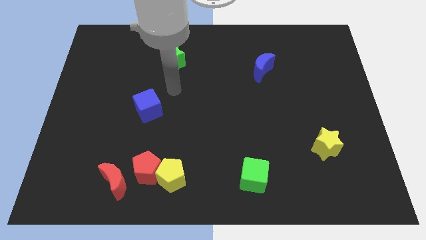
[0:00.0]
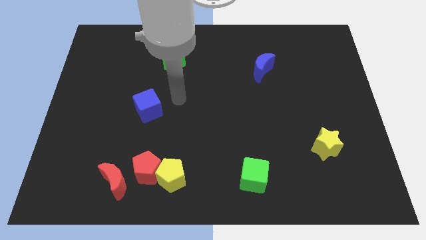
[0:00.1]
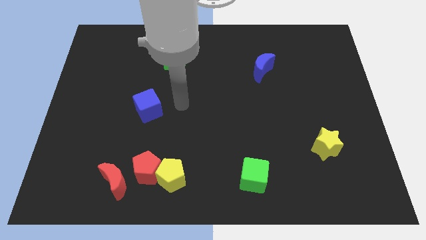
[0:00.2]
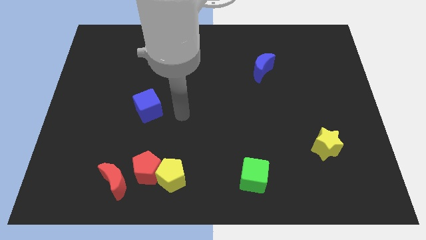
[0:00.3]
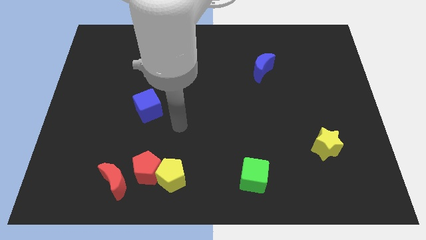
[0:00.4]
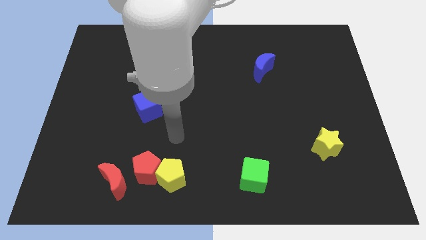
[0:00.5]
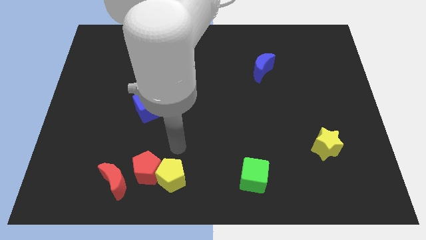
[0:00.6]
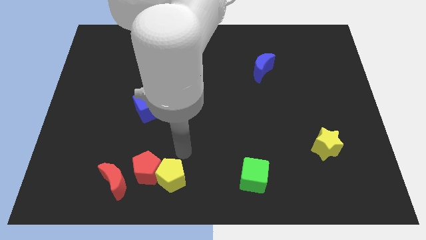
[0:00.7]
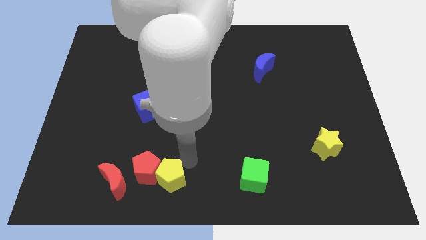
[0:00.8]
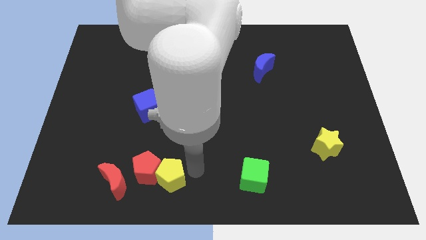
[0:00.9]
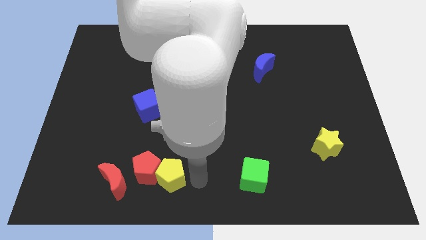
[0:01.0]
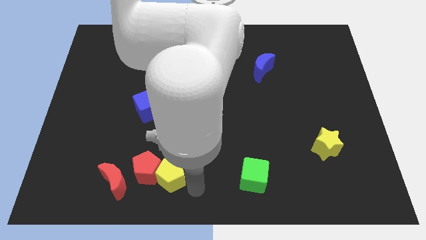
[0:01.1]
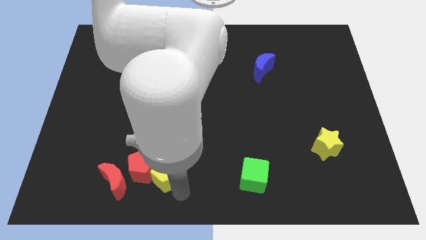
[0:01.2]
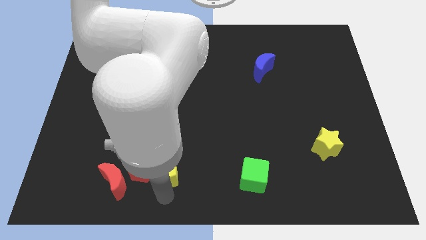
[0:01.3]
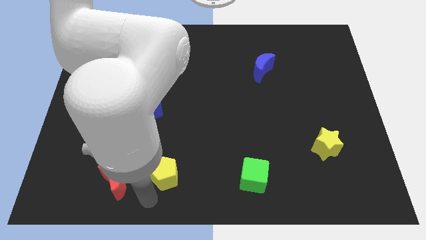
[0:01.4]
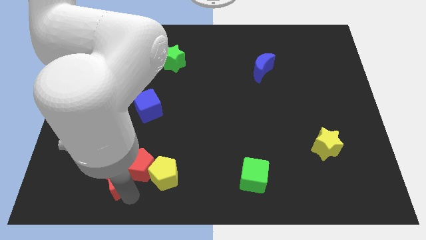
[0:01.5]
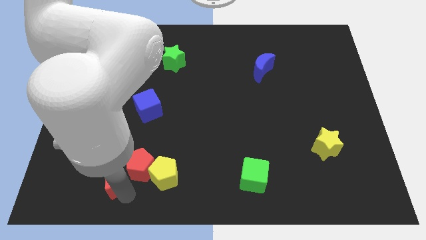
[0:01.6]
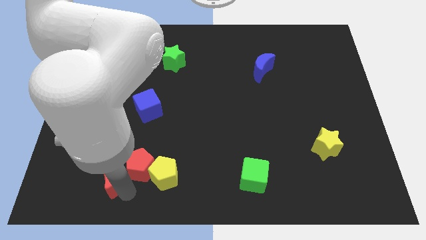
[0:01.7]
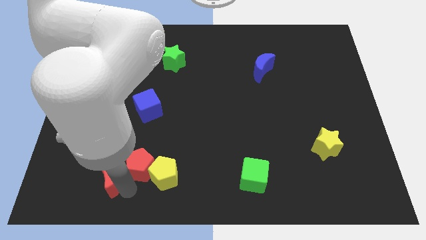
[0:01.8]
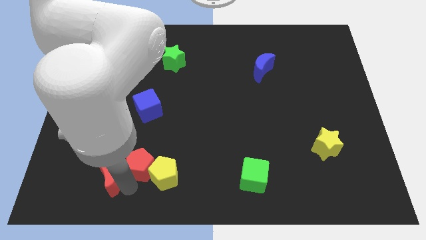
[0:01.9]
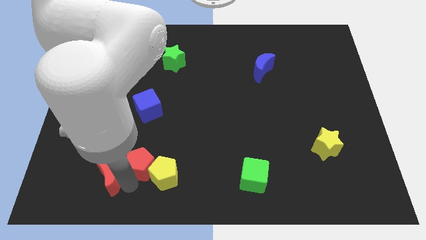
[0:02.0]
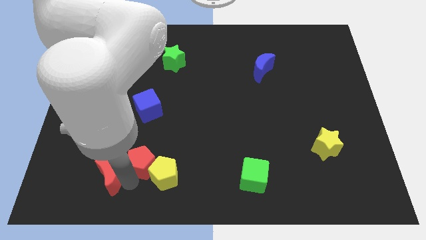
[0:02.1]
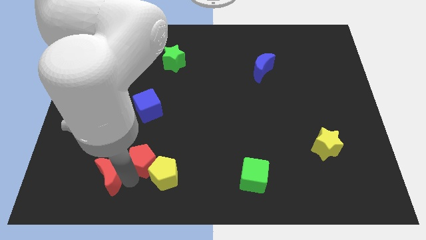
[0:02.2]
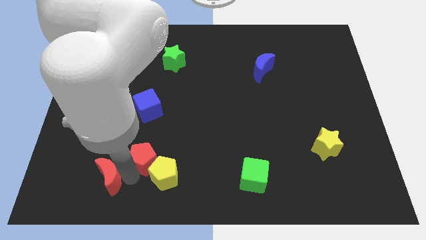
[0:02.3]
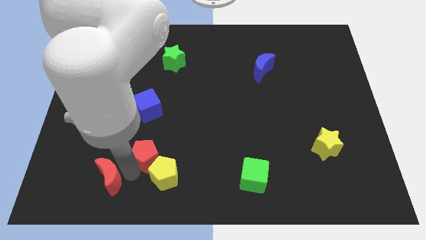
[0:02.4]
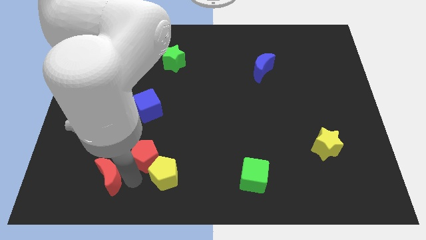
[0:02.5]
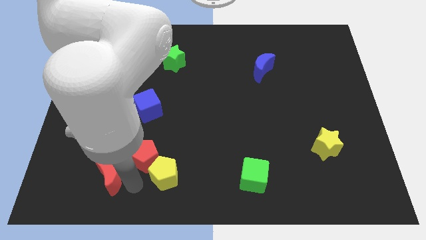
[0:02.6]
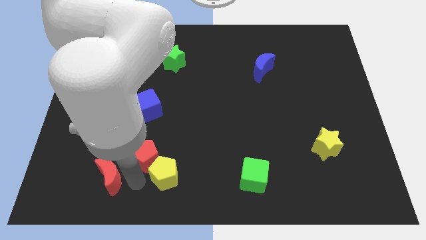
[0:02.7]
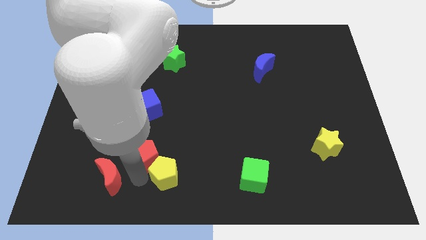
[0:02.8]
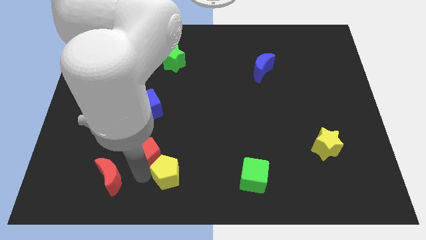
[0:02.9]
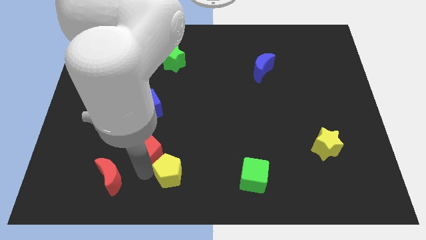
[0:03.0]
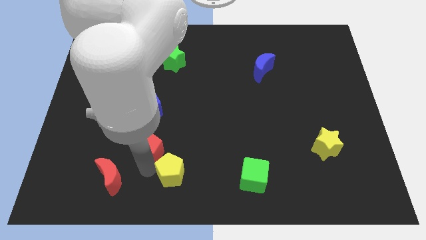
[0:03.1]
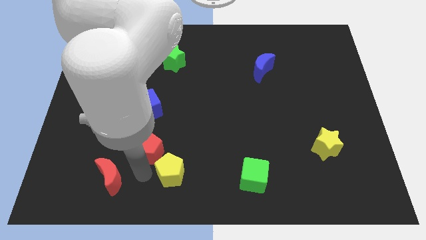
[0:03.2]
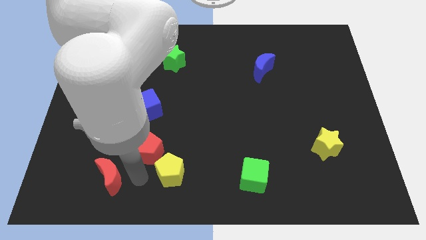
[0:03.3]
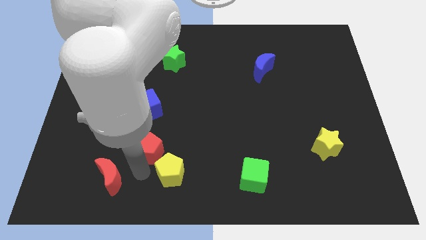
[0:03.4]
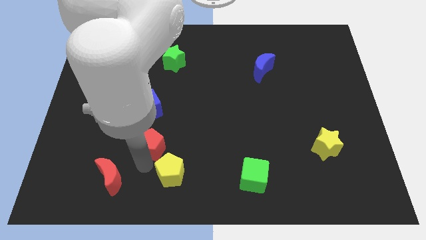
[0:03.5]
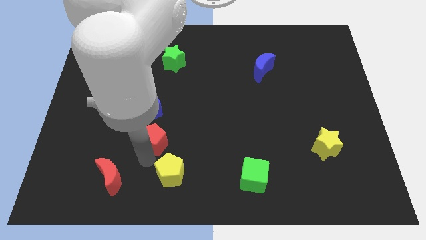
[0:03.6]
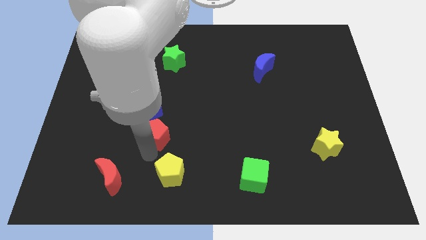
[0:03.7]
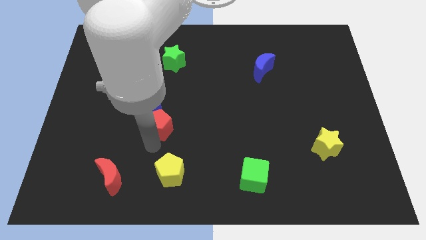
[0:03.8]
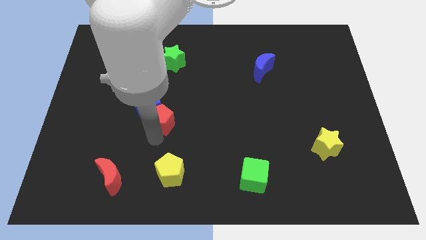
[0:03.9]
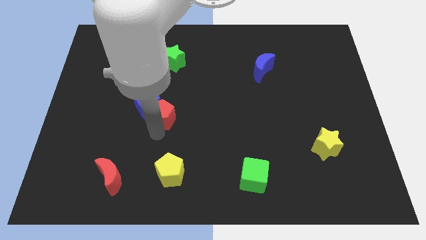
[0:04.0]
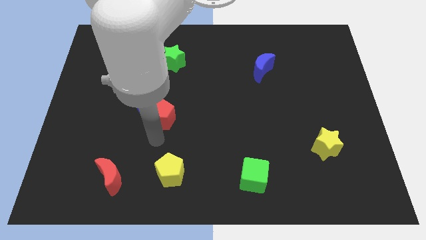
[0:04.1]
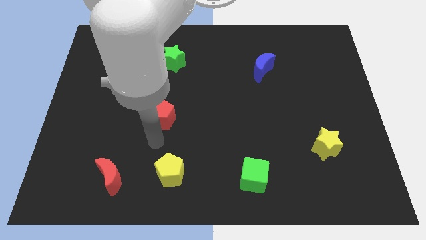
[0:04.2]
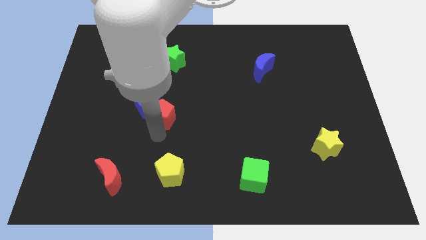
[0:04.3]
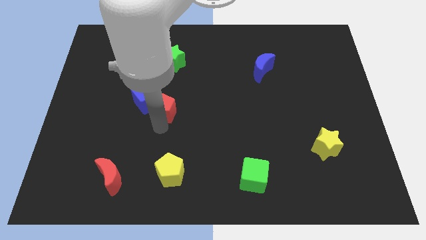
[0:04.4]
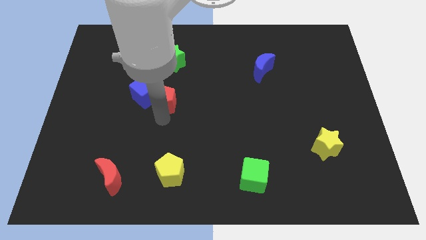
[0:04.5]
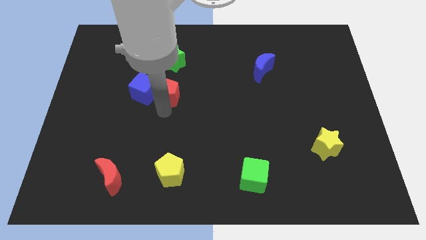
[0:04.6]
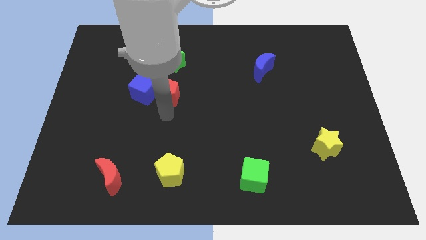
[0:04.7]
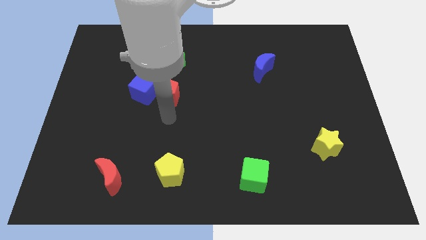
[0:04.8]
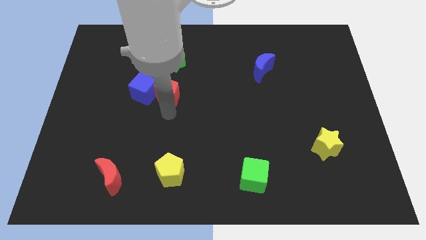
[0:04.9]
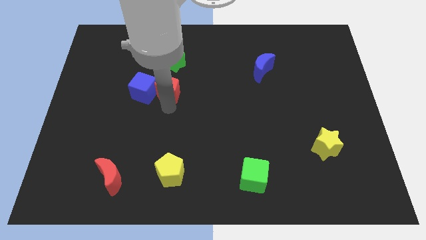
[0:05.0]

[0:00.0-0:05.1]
put the red pentagon to the top right of the blue cube

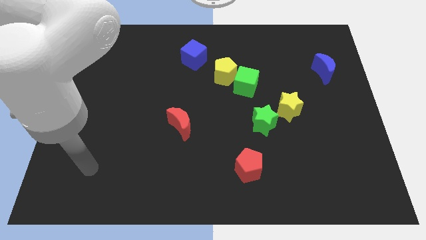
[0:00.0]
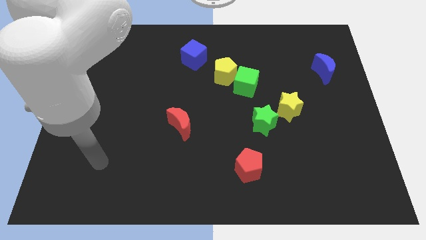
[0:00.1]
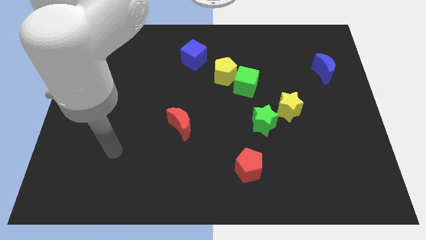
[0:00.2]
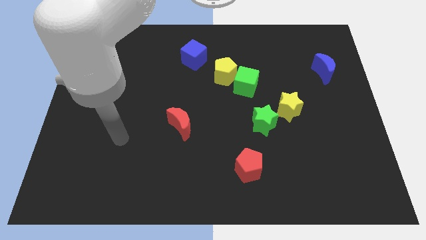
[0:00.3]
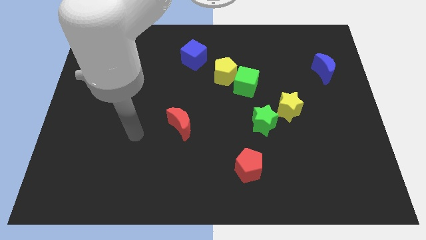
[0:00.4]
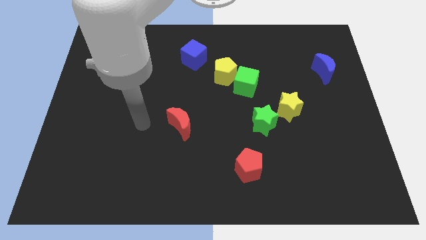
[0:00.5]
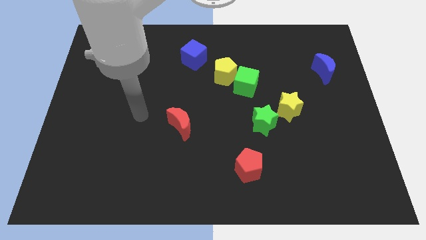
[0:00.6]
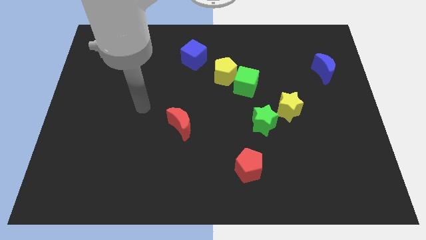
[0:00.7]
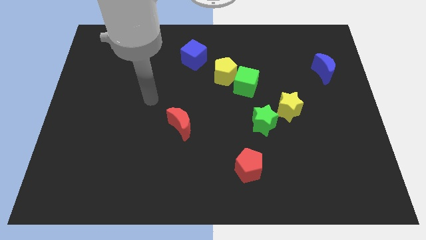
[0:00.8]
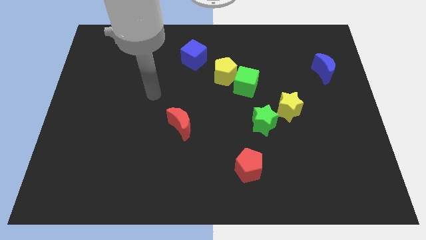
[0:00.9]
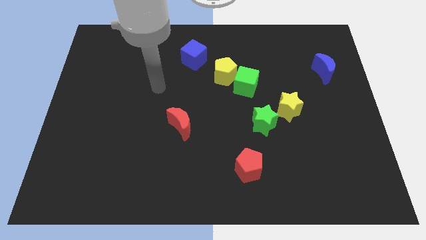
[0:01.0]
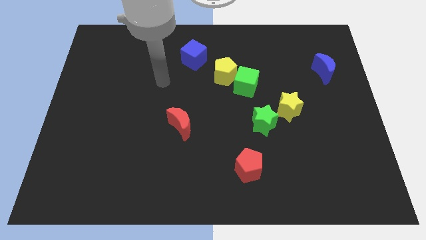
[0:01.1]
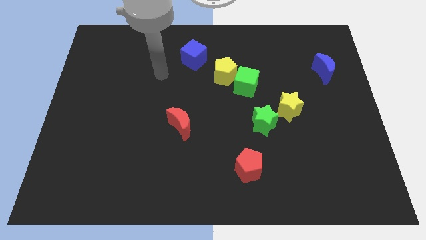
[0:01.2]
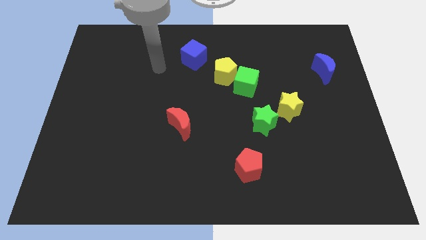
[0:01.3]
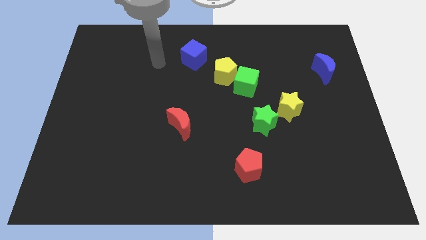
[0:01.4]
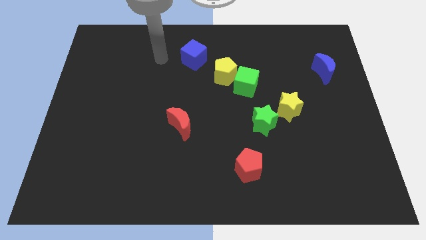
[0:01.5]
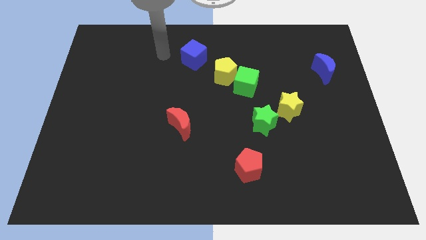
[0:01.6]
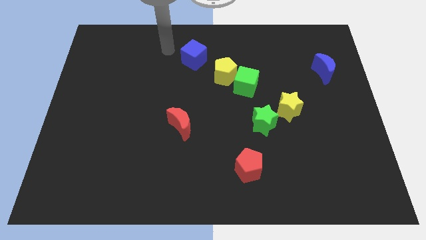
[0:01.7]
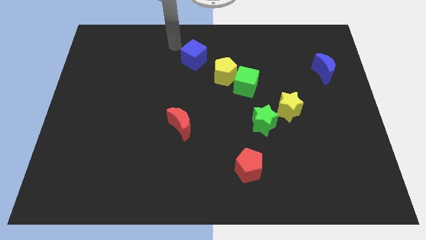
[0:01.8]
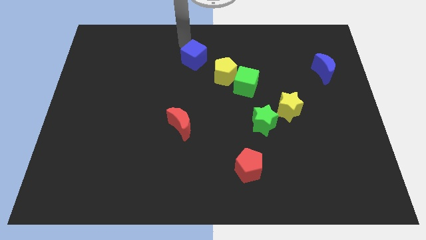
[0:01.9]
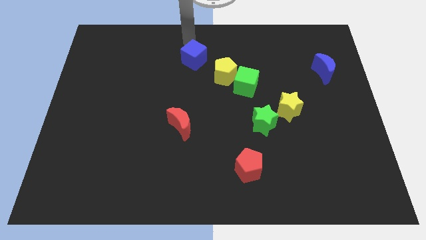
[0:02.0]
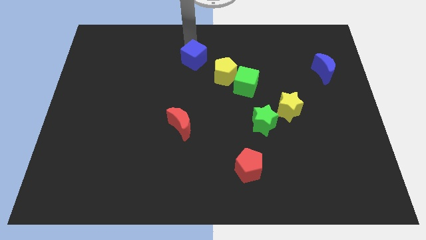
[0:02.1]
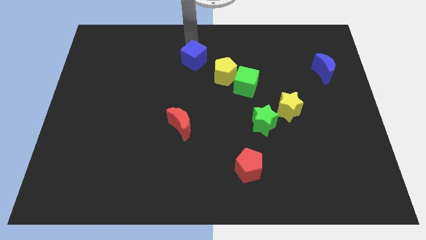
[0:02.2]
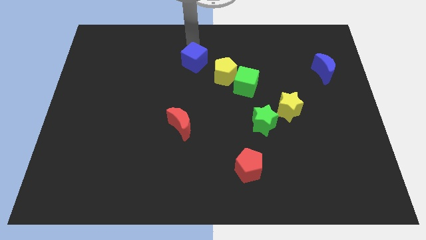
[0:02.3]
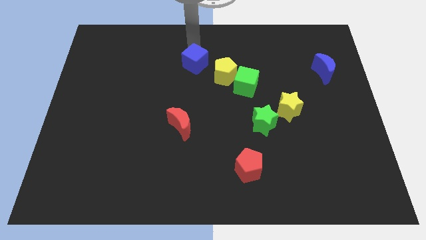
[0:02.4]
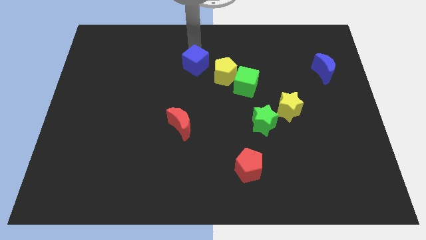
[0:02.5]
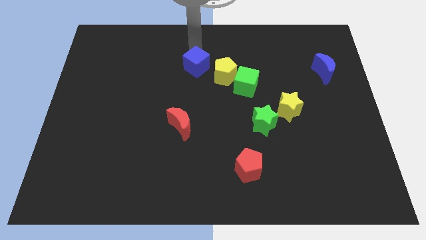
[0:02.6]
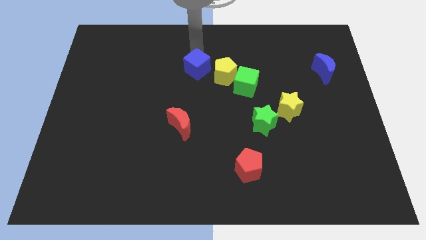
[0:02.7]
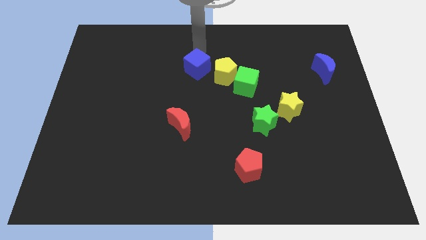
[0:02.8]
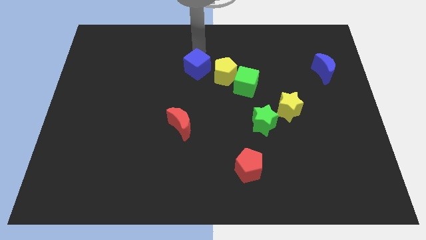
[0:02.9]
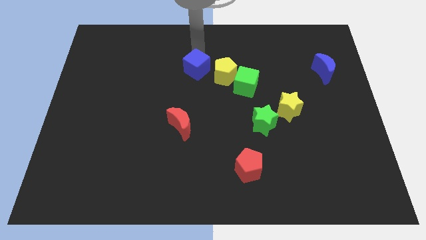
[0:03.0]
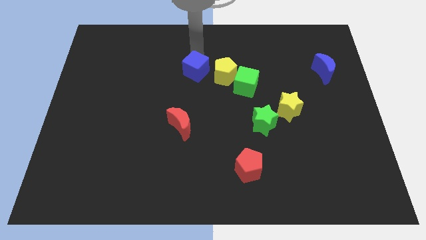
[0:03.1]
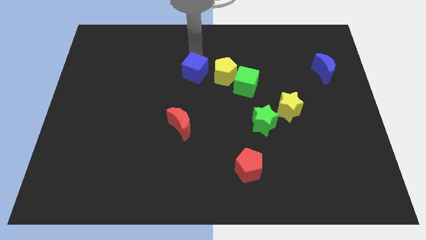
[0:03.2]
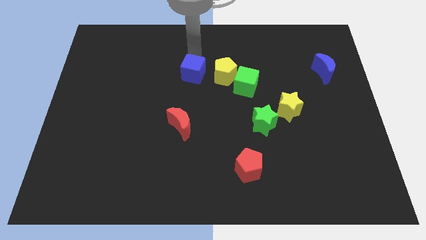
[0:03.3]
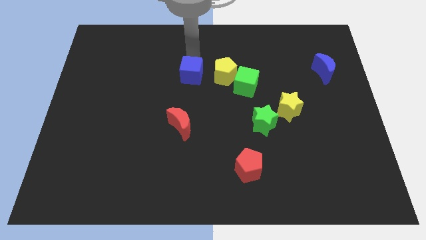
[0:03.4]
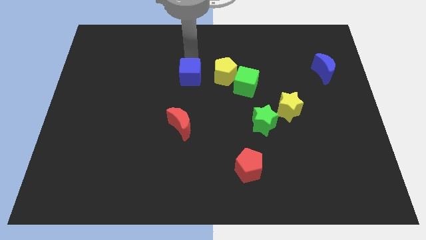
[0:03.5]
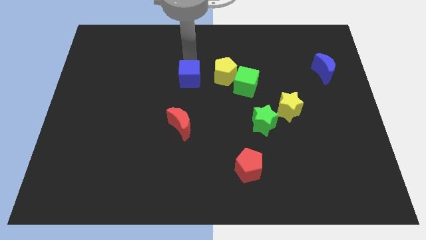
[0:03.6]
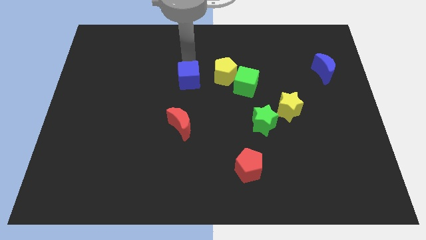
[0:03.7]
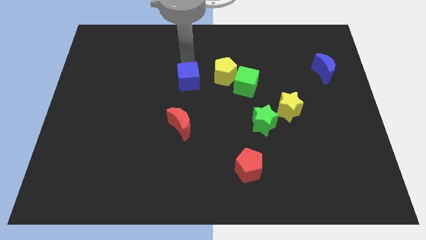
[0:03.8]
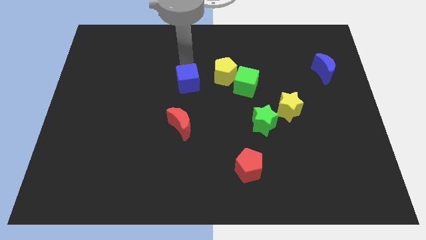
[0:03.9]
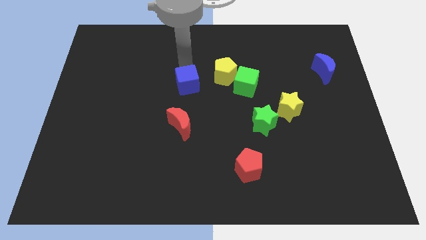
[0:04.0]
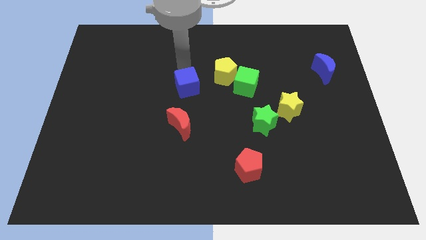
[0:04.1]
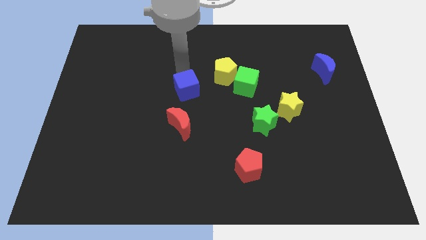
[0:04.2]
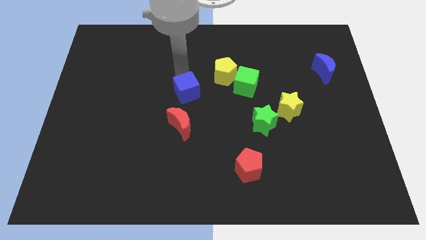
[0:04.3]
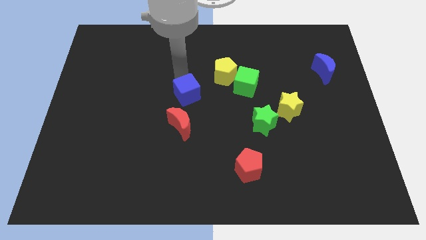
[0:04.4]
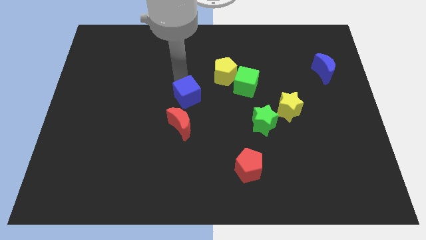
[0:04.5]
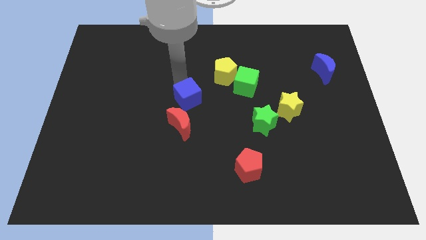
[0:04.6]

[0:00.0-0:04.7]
slide the blue cube diagonally up and to the right of the red moon
